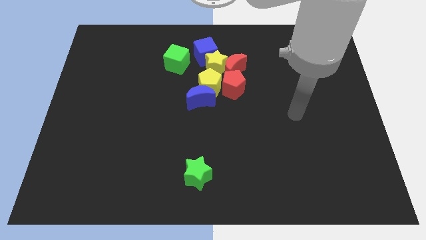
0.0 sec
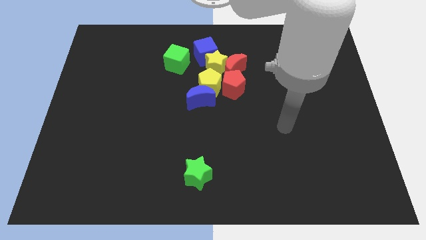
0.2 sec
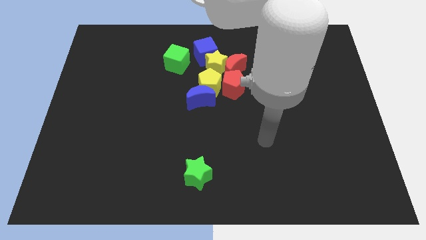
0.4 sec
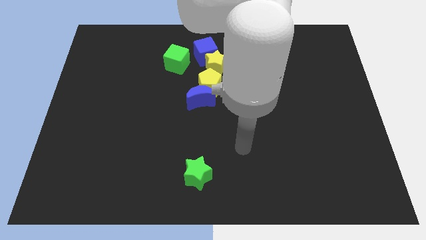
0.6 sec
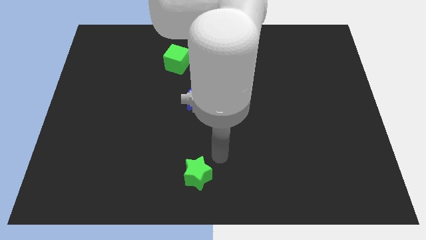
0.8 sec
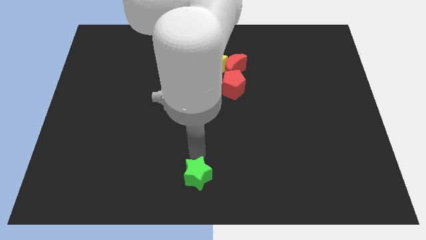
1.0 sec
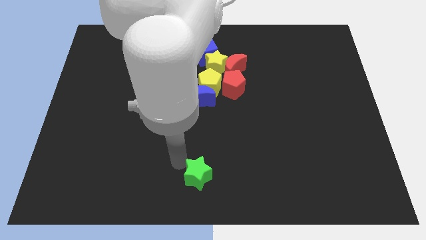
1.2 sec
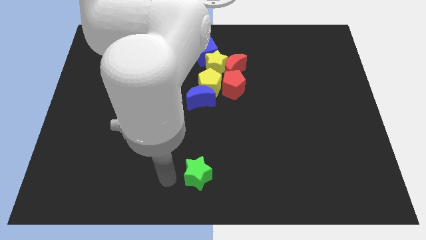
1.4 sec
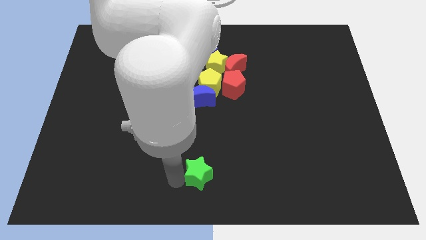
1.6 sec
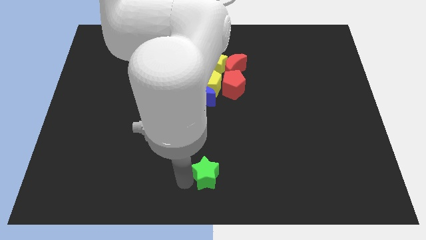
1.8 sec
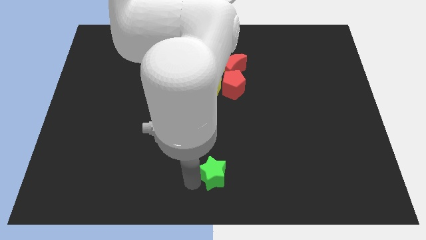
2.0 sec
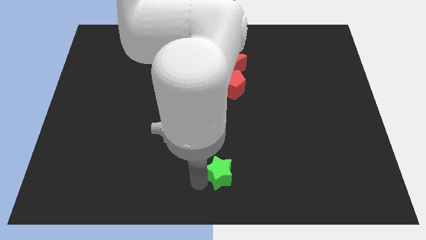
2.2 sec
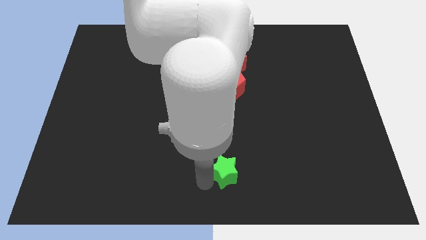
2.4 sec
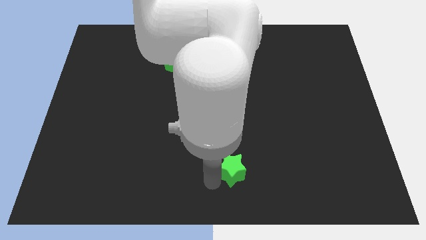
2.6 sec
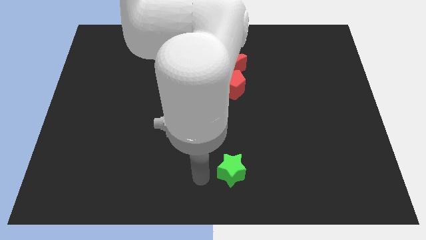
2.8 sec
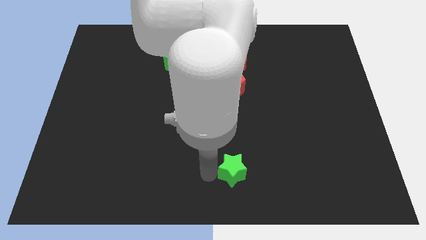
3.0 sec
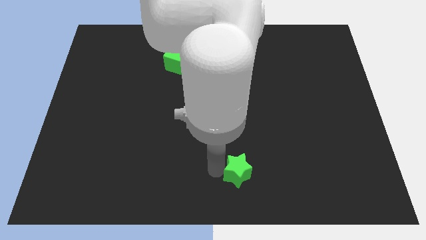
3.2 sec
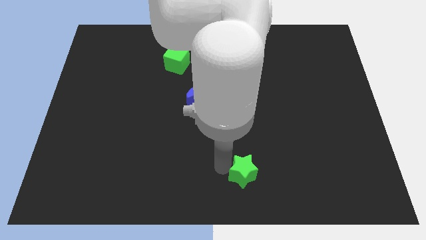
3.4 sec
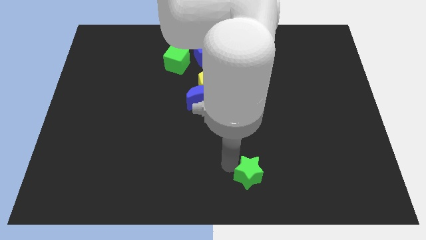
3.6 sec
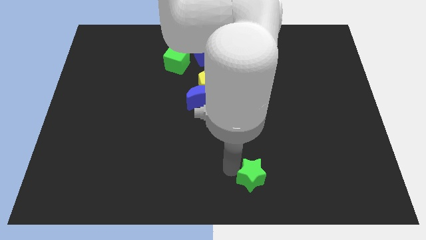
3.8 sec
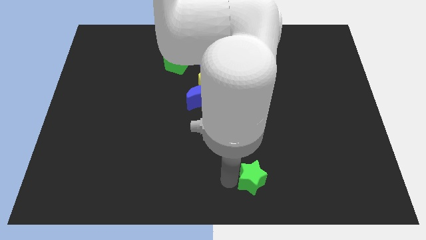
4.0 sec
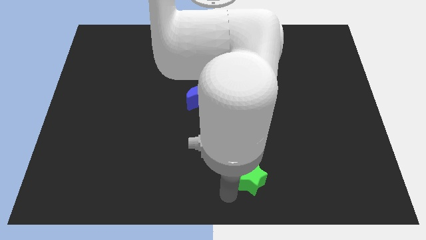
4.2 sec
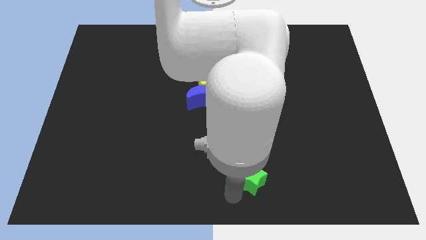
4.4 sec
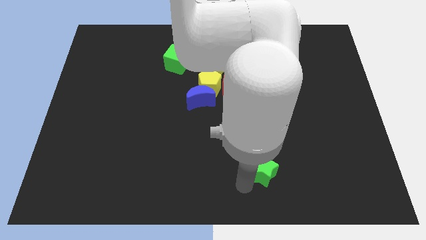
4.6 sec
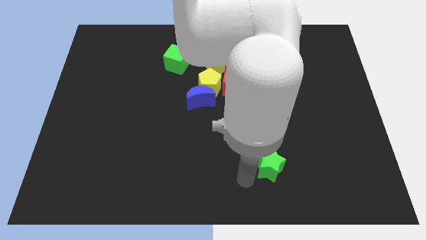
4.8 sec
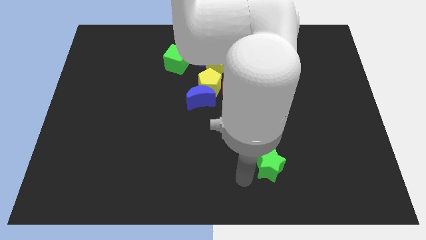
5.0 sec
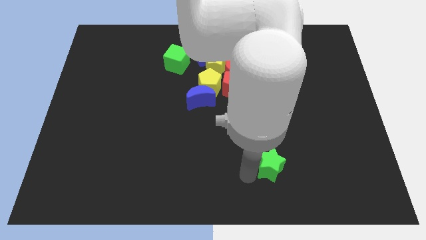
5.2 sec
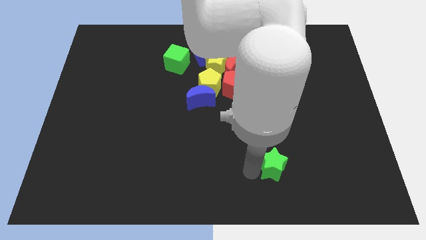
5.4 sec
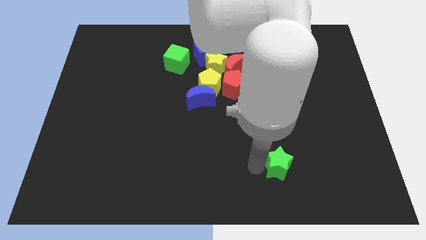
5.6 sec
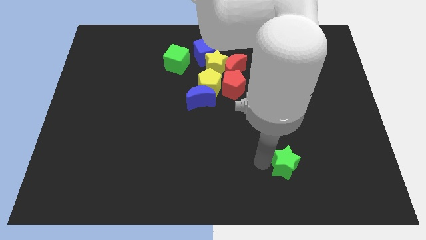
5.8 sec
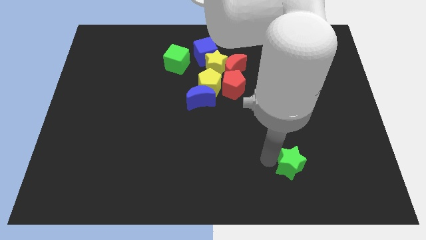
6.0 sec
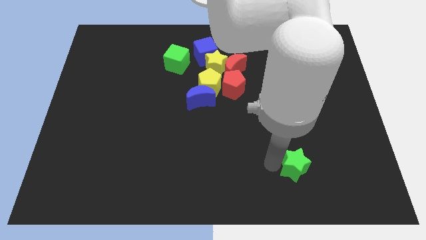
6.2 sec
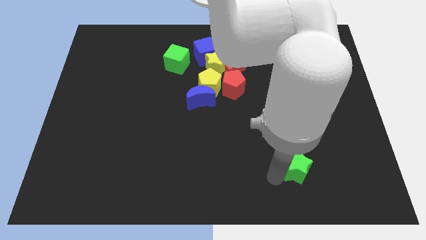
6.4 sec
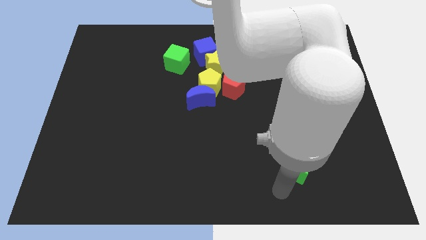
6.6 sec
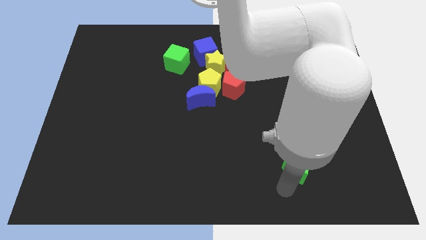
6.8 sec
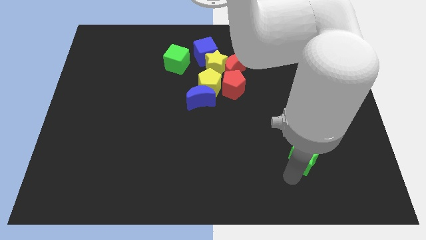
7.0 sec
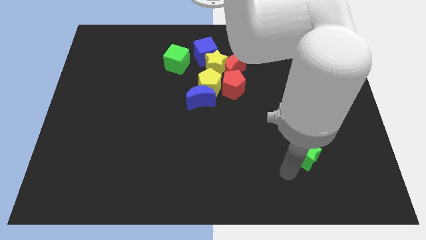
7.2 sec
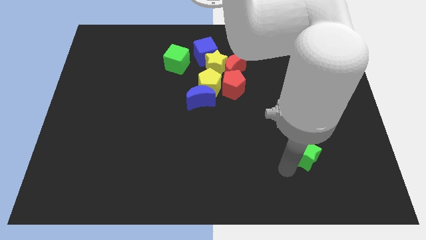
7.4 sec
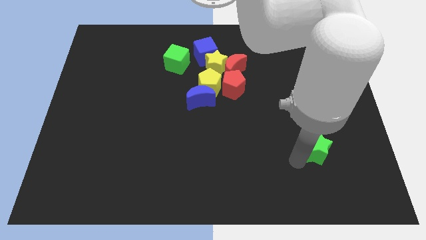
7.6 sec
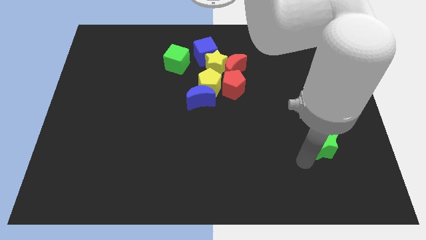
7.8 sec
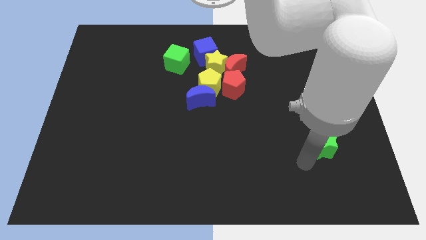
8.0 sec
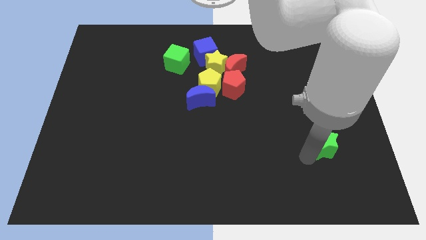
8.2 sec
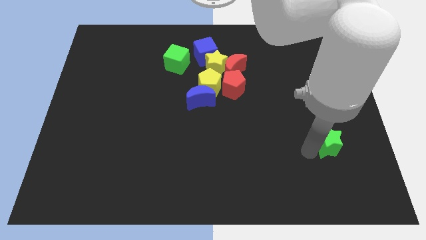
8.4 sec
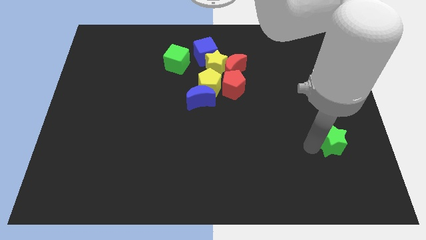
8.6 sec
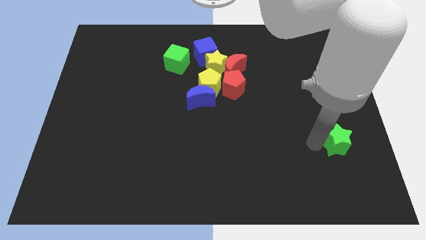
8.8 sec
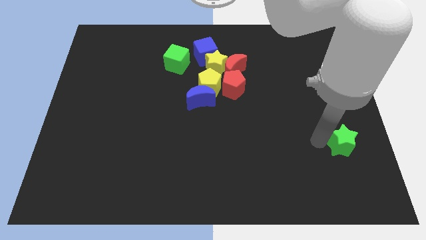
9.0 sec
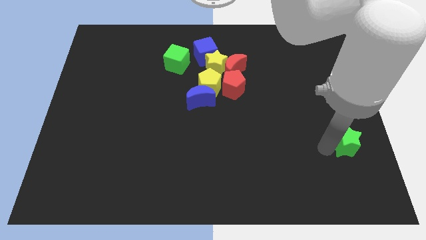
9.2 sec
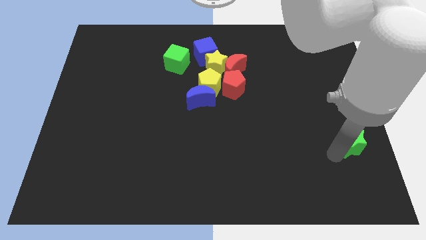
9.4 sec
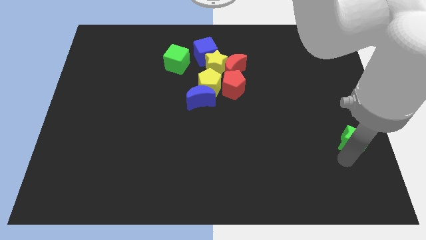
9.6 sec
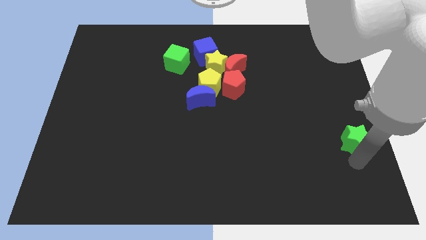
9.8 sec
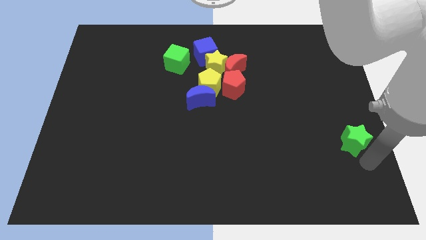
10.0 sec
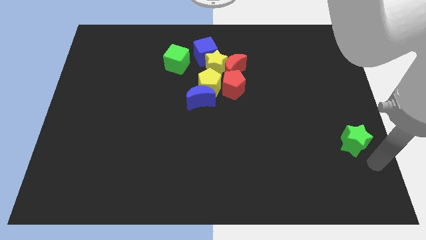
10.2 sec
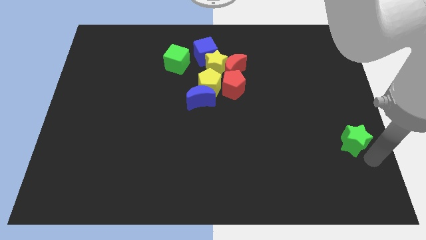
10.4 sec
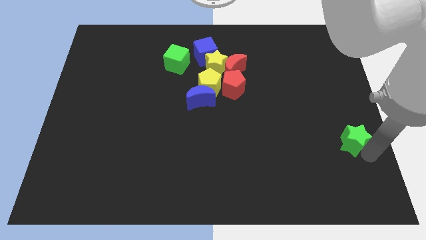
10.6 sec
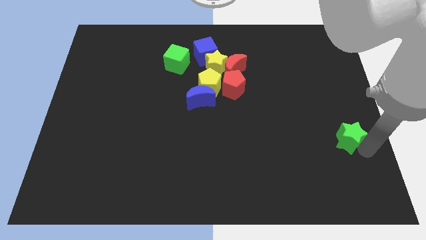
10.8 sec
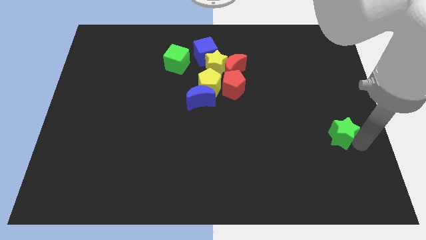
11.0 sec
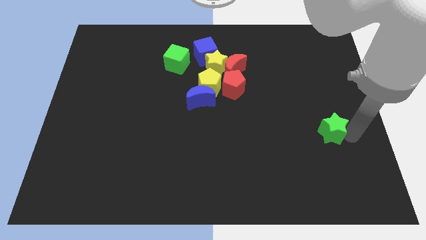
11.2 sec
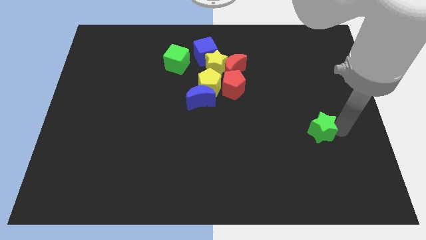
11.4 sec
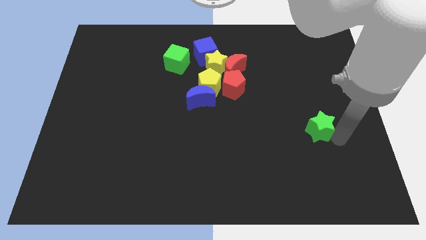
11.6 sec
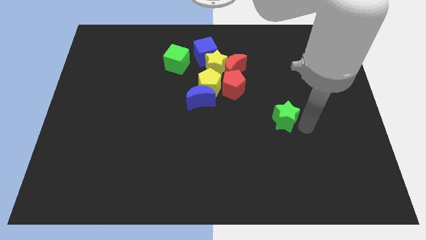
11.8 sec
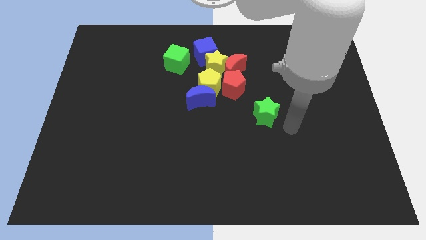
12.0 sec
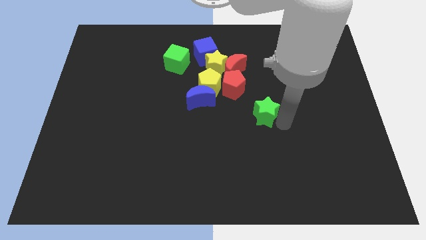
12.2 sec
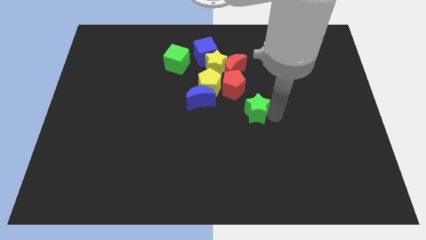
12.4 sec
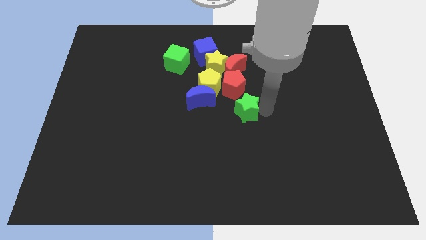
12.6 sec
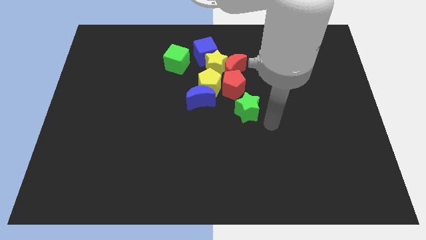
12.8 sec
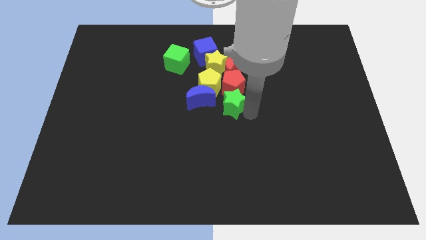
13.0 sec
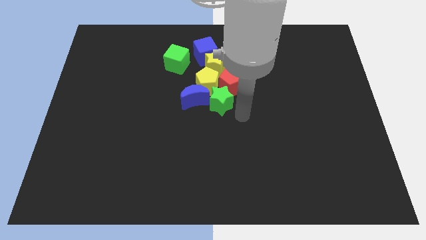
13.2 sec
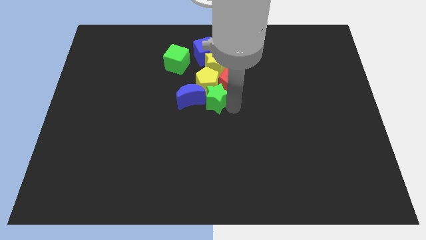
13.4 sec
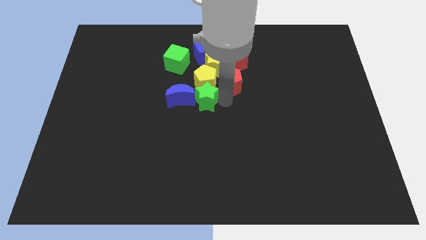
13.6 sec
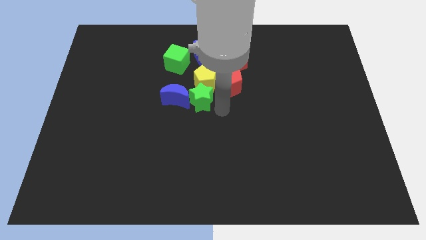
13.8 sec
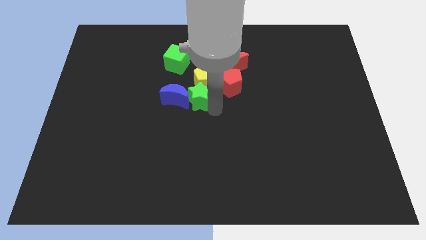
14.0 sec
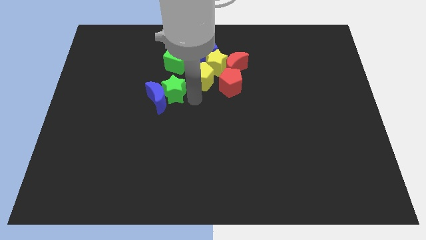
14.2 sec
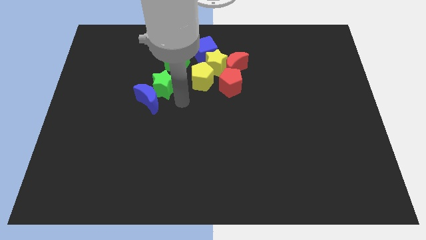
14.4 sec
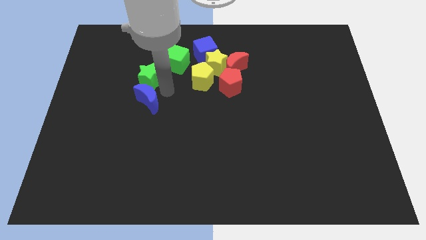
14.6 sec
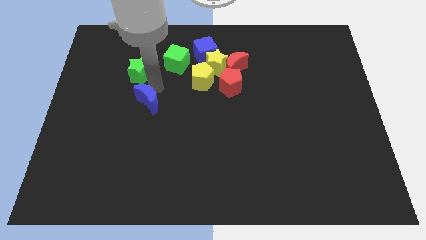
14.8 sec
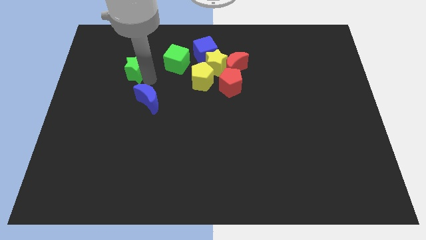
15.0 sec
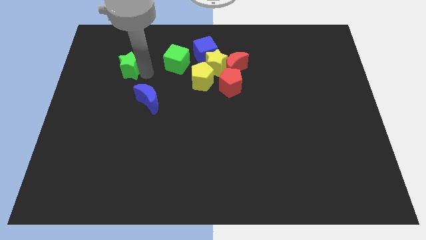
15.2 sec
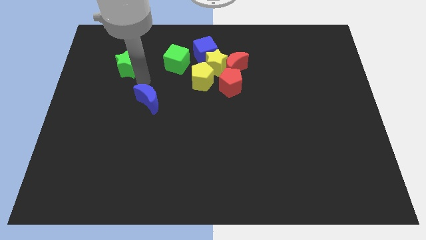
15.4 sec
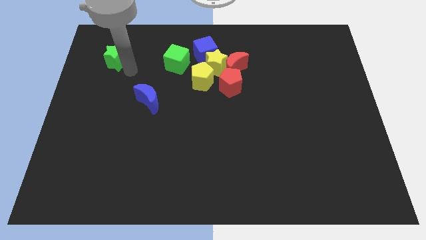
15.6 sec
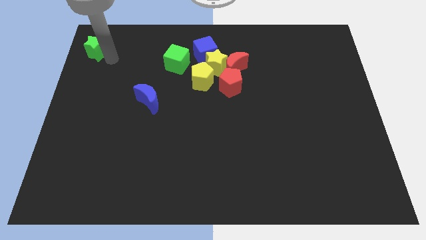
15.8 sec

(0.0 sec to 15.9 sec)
slide the green star to the upper left corner
